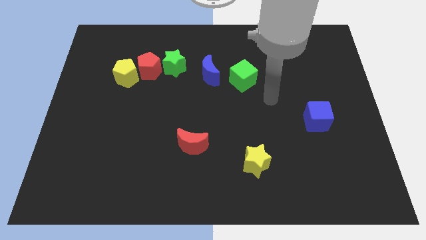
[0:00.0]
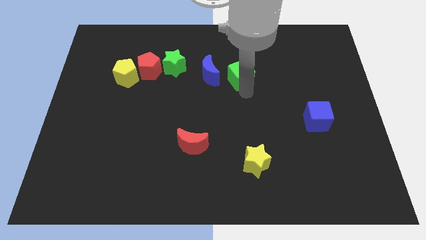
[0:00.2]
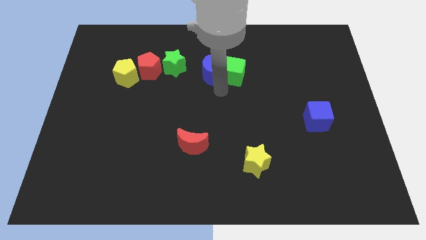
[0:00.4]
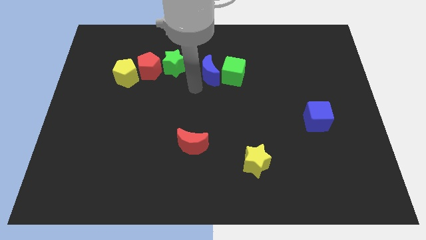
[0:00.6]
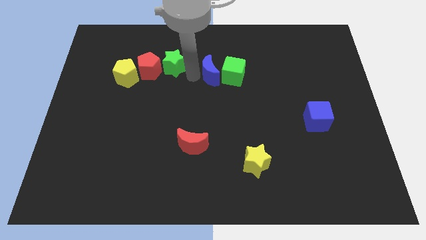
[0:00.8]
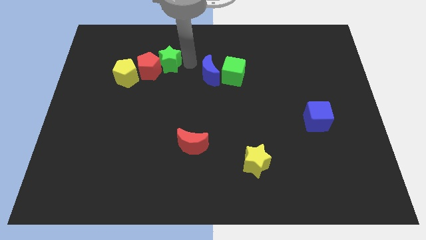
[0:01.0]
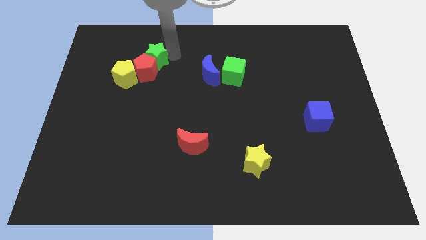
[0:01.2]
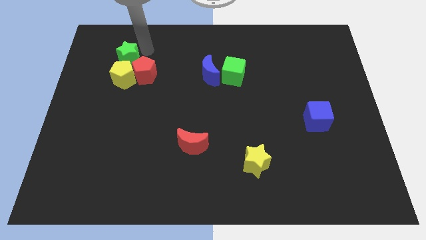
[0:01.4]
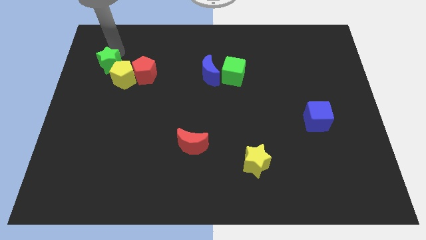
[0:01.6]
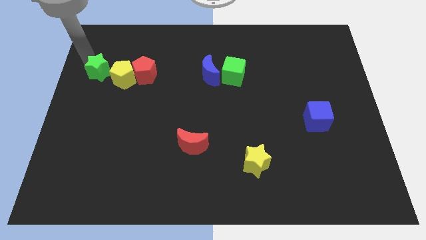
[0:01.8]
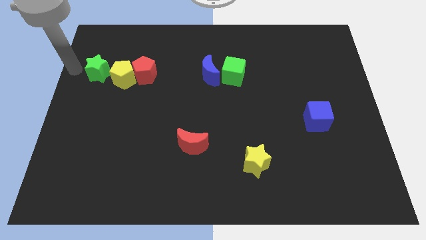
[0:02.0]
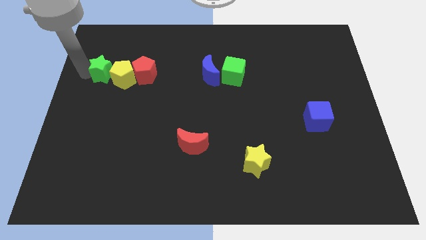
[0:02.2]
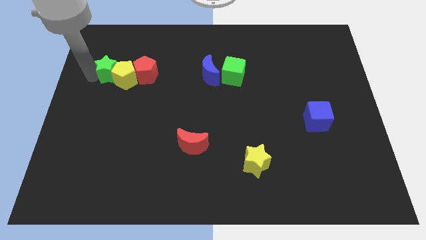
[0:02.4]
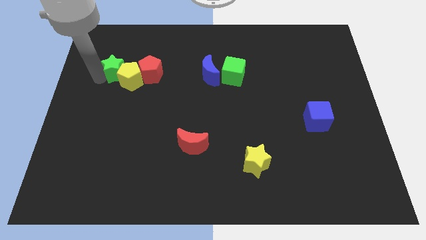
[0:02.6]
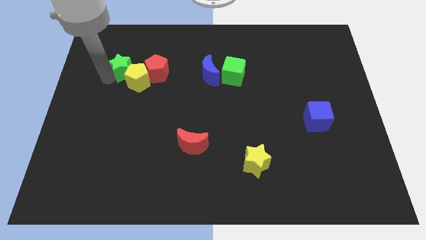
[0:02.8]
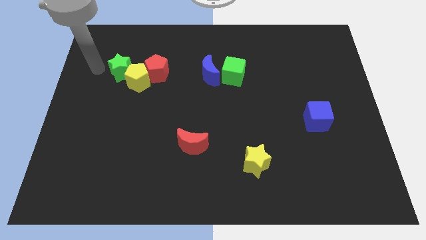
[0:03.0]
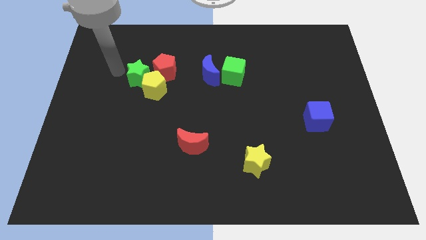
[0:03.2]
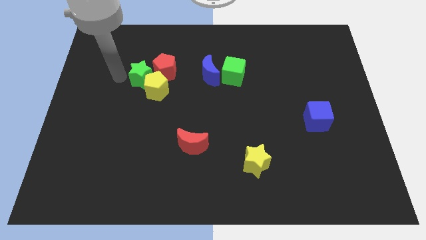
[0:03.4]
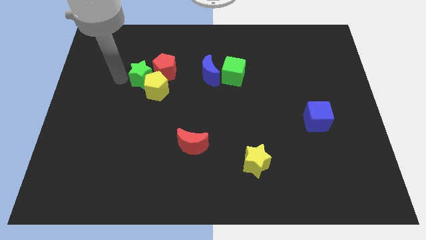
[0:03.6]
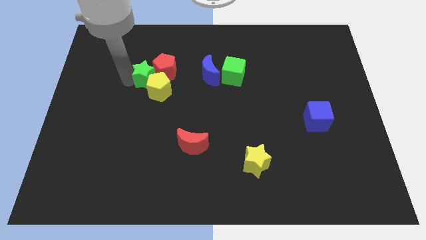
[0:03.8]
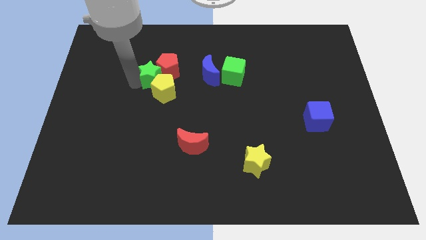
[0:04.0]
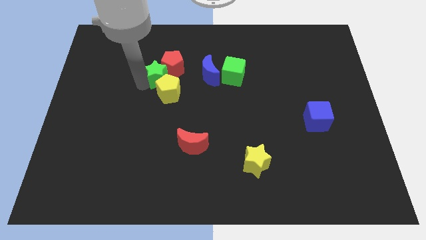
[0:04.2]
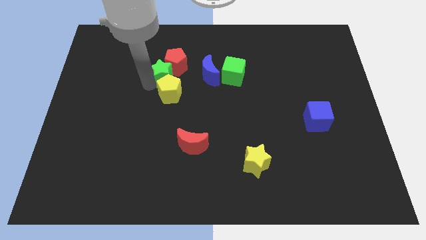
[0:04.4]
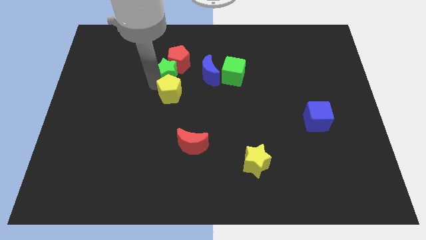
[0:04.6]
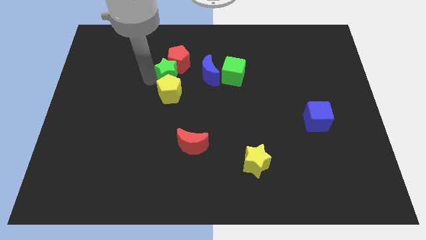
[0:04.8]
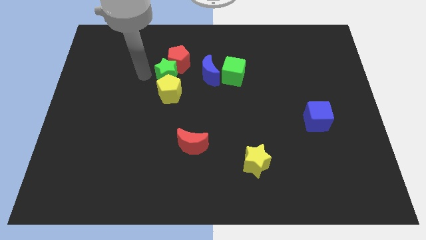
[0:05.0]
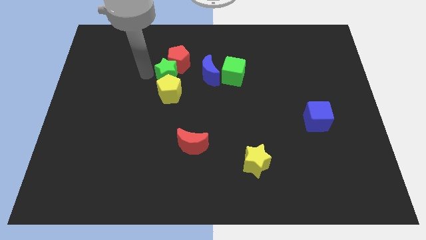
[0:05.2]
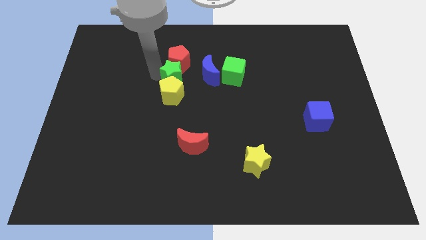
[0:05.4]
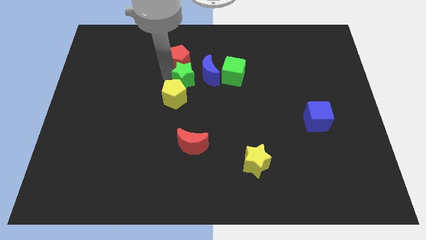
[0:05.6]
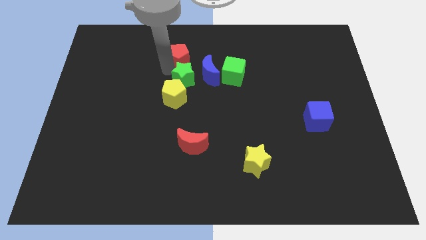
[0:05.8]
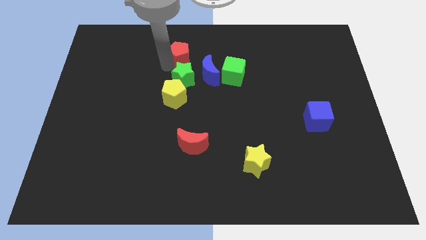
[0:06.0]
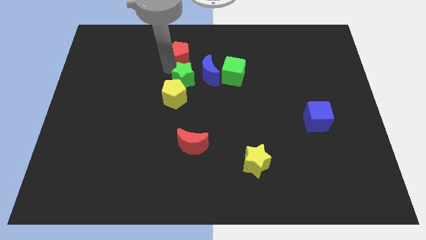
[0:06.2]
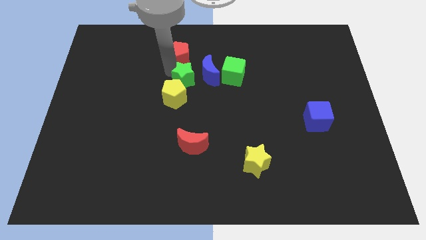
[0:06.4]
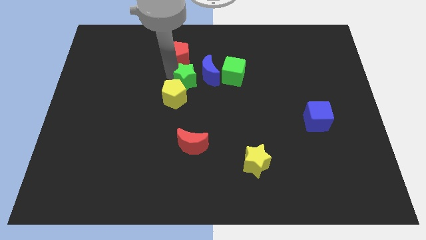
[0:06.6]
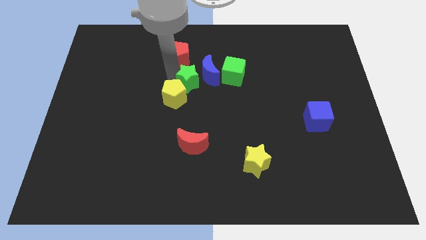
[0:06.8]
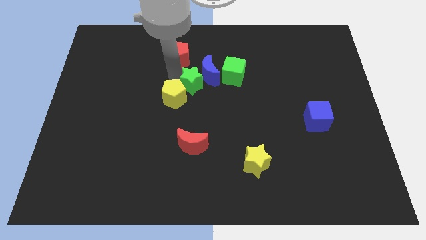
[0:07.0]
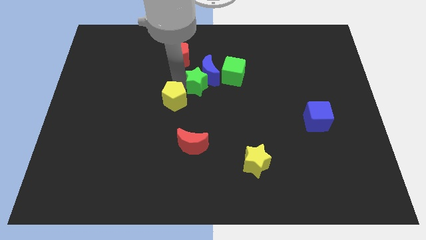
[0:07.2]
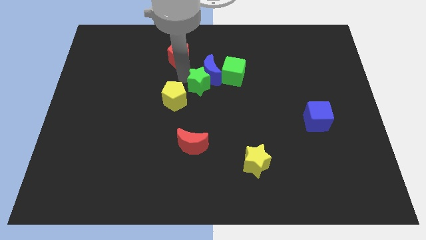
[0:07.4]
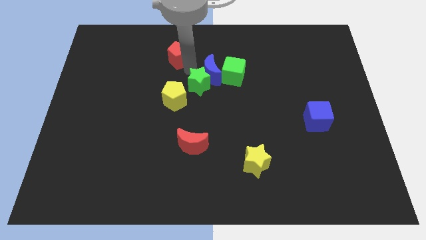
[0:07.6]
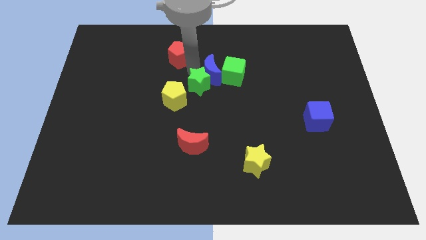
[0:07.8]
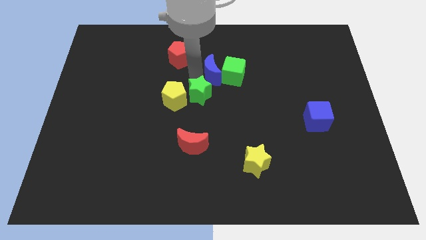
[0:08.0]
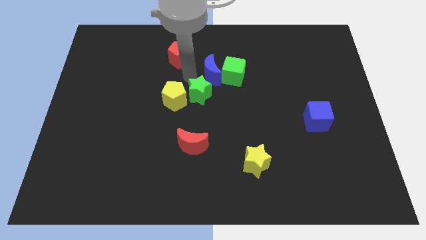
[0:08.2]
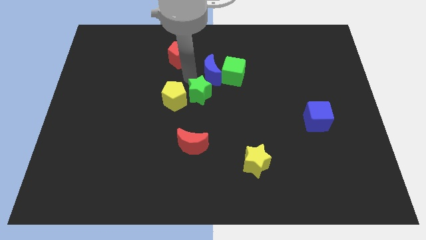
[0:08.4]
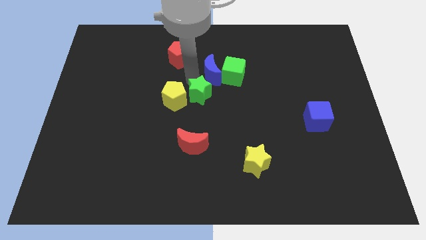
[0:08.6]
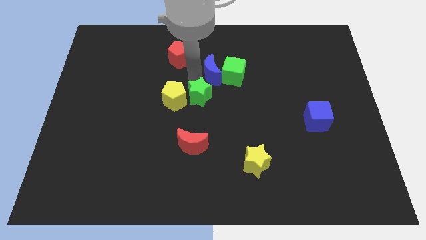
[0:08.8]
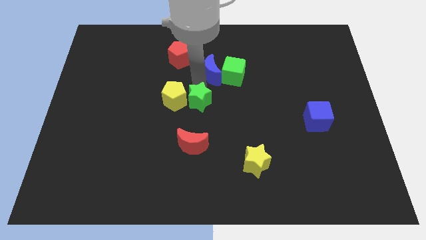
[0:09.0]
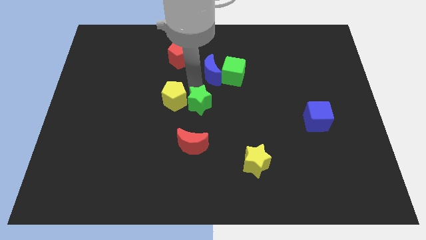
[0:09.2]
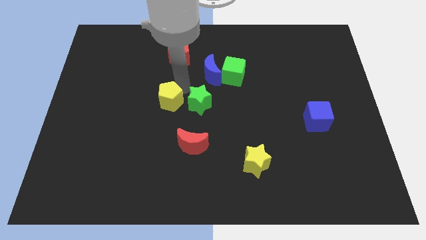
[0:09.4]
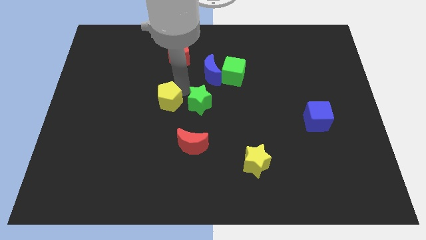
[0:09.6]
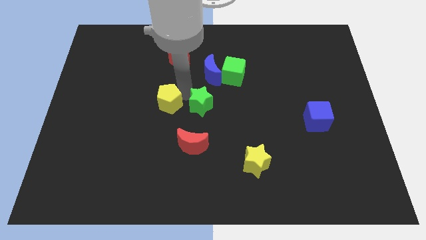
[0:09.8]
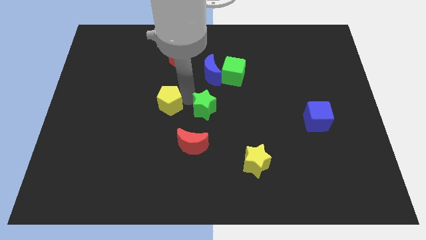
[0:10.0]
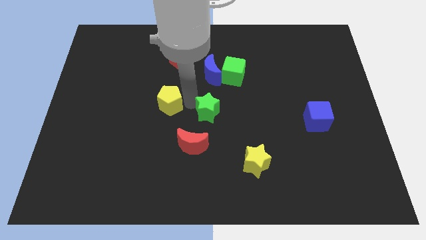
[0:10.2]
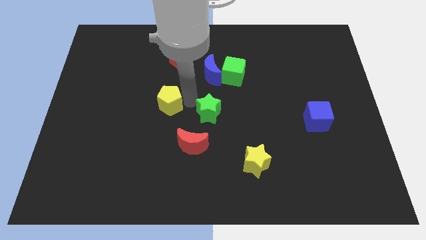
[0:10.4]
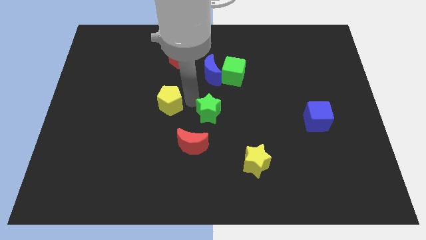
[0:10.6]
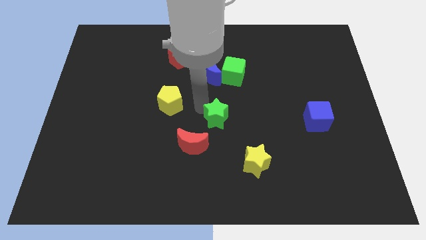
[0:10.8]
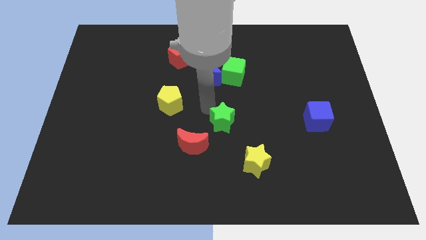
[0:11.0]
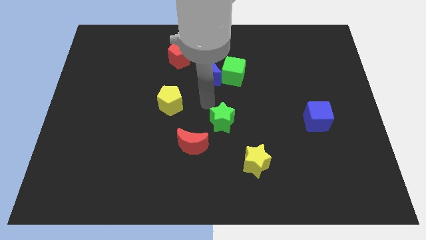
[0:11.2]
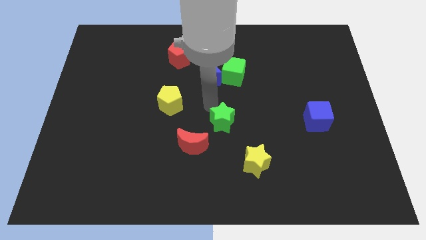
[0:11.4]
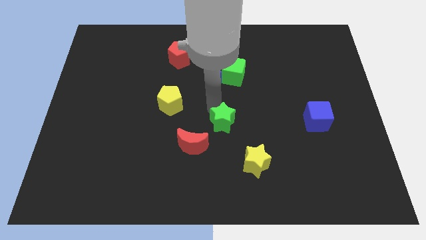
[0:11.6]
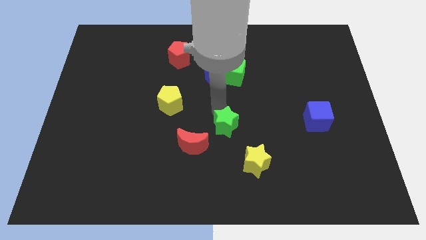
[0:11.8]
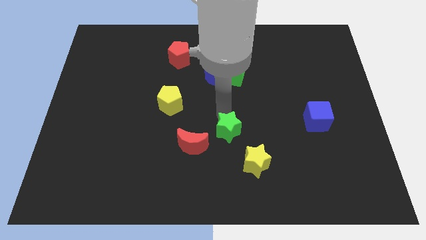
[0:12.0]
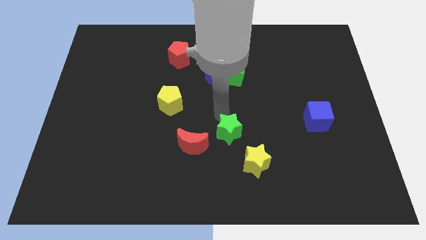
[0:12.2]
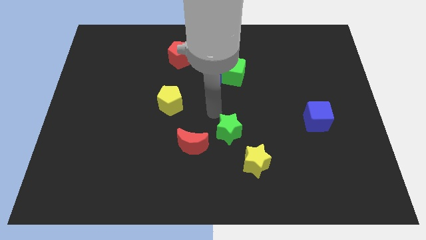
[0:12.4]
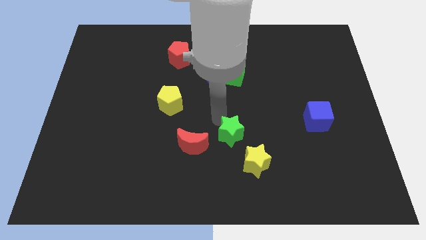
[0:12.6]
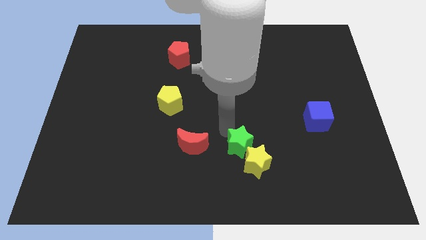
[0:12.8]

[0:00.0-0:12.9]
slide the green star next to the yellow star

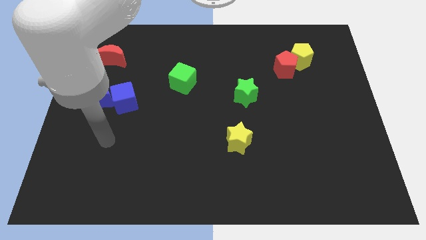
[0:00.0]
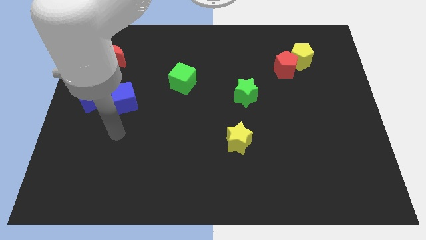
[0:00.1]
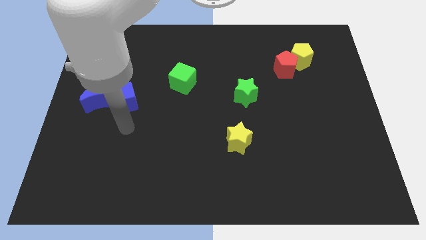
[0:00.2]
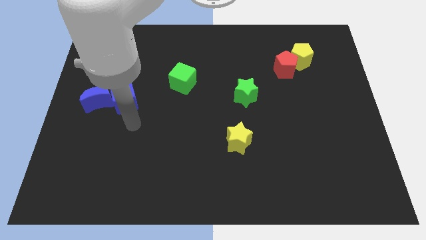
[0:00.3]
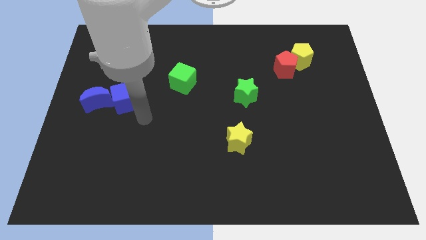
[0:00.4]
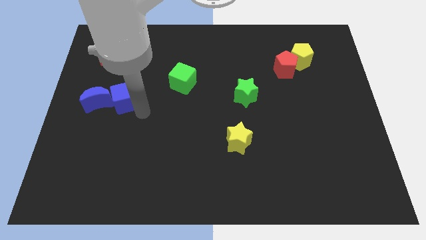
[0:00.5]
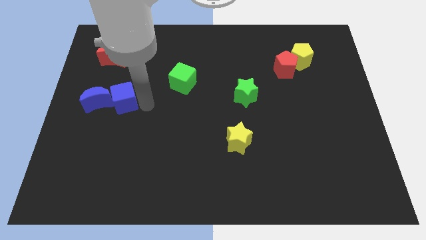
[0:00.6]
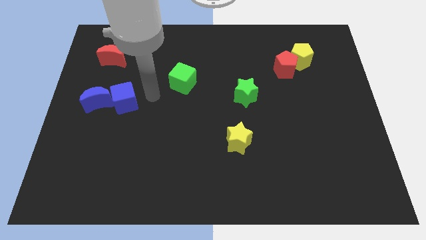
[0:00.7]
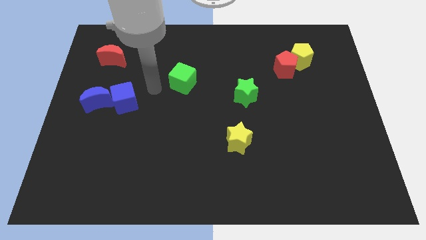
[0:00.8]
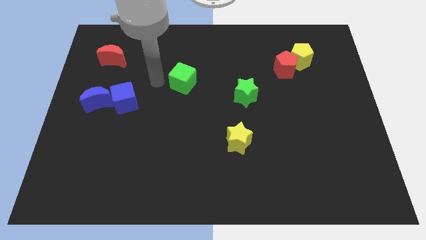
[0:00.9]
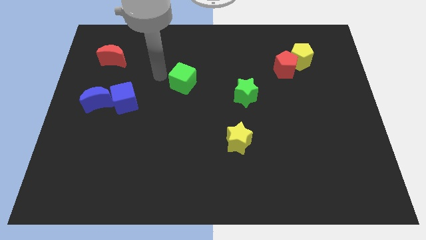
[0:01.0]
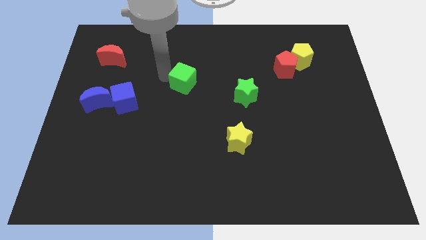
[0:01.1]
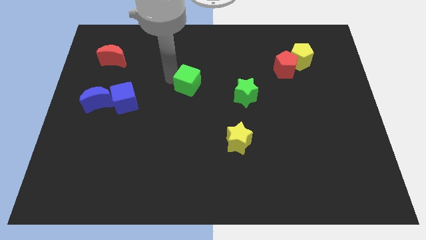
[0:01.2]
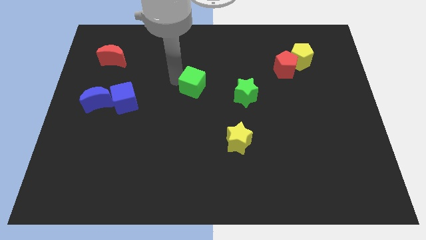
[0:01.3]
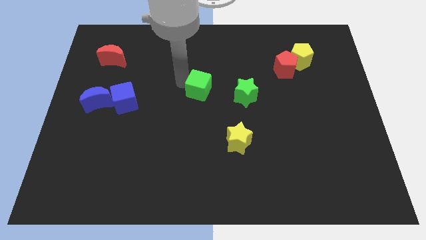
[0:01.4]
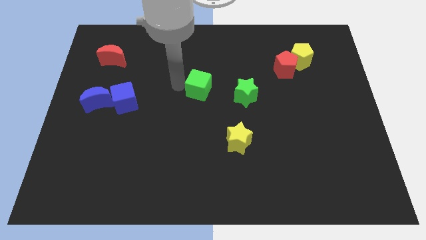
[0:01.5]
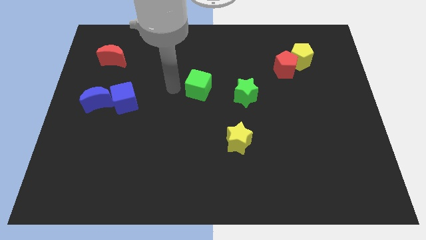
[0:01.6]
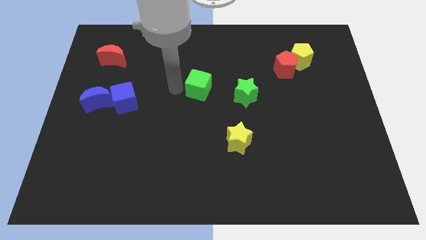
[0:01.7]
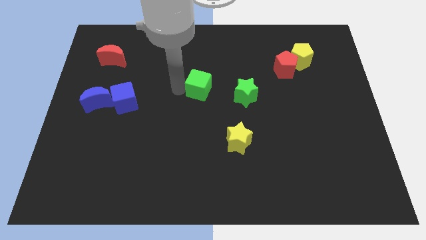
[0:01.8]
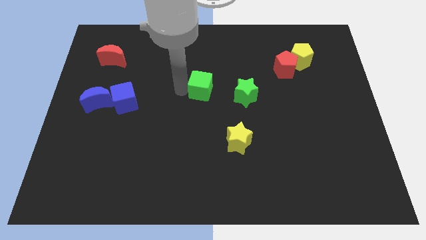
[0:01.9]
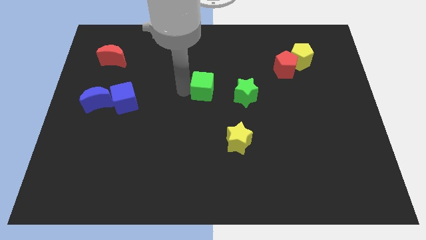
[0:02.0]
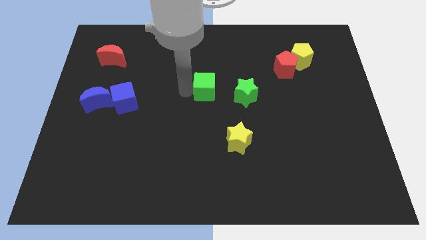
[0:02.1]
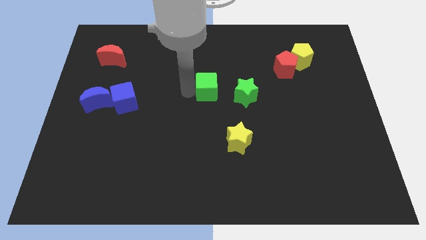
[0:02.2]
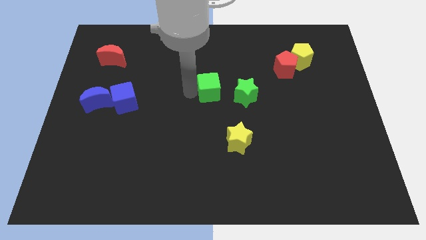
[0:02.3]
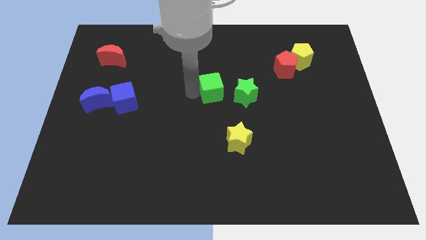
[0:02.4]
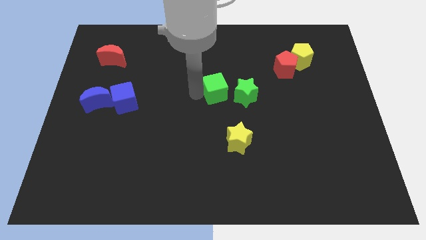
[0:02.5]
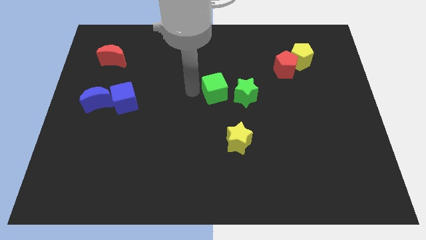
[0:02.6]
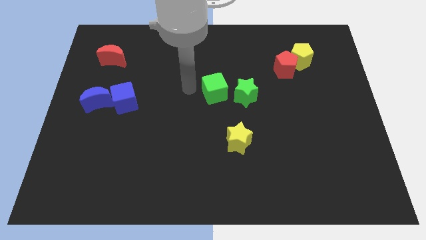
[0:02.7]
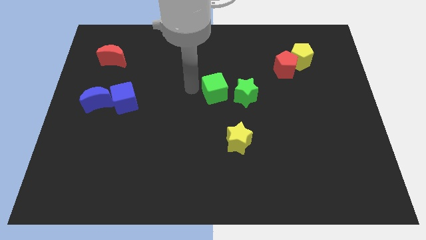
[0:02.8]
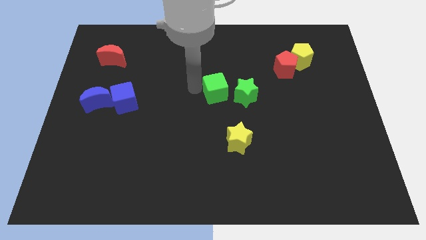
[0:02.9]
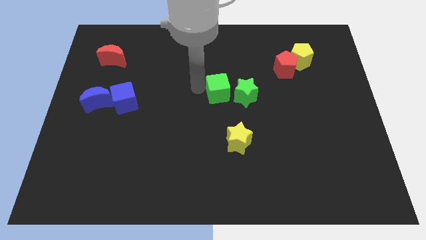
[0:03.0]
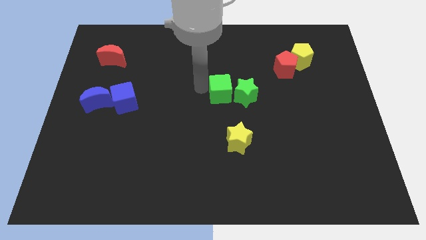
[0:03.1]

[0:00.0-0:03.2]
slide the green cube towards the green star
